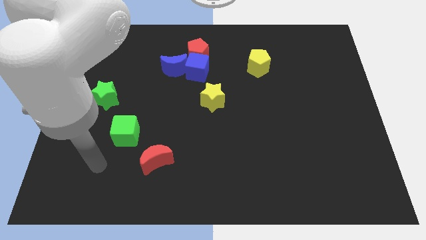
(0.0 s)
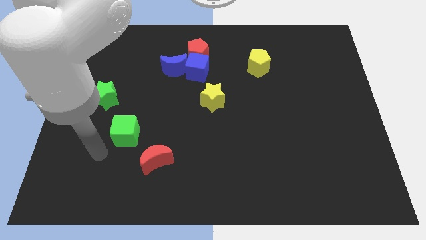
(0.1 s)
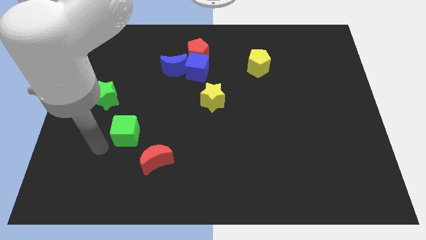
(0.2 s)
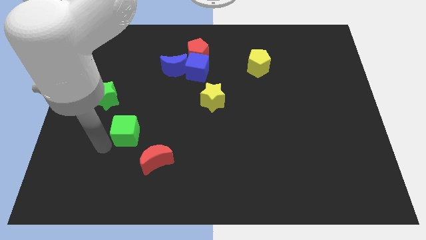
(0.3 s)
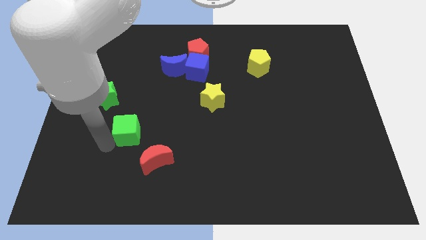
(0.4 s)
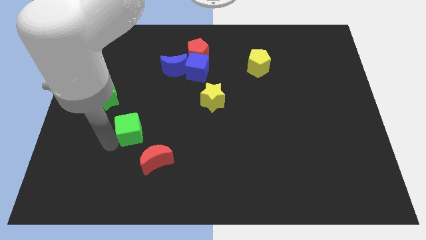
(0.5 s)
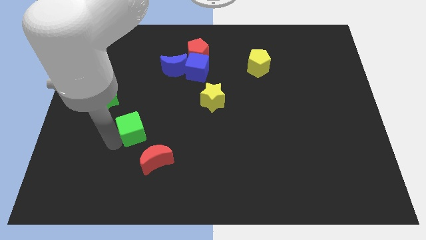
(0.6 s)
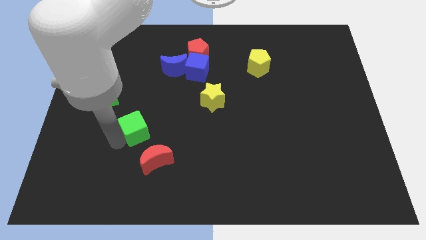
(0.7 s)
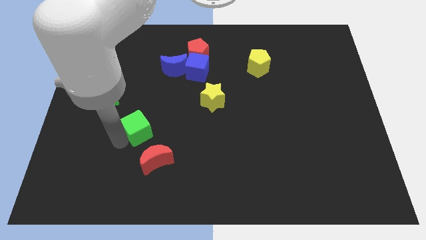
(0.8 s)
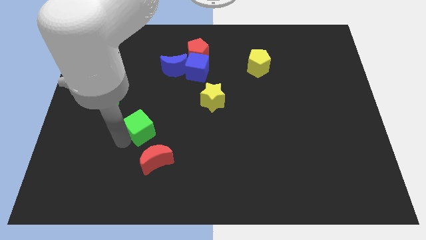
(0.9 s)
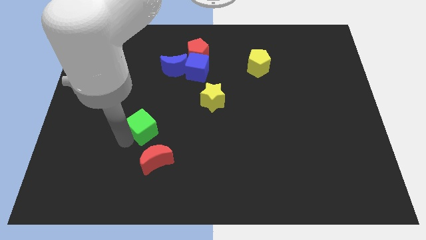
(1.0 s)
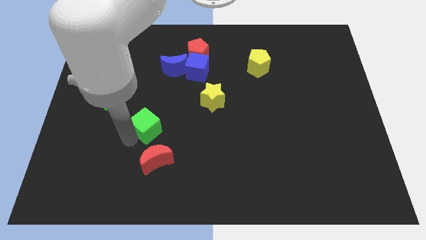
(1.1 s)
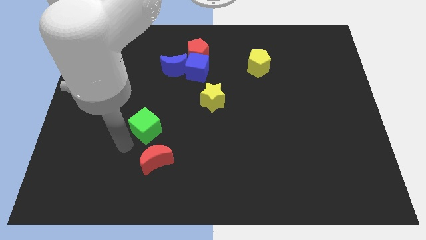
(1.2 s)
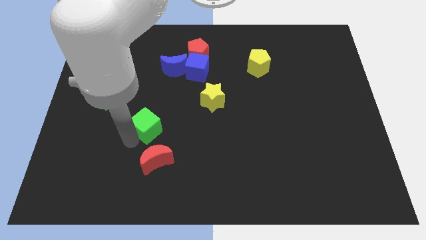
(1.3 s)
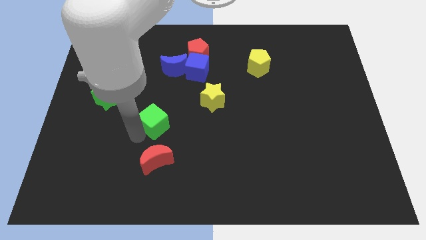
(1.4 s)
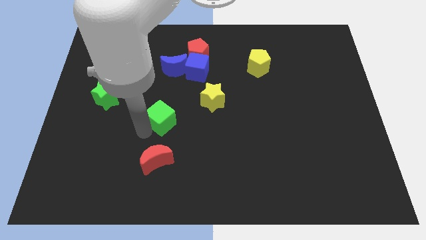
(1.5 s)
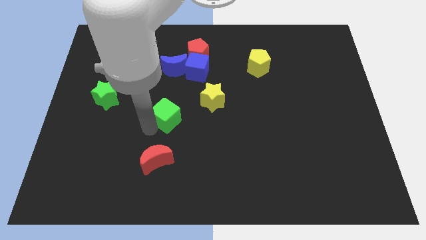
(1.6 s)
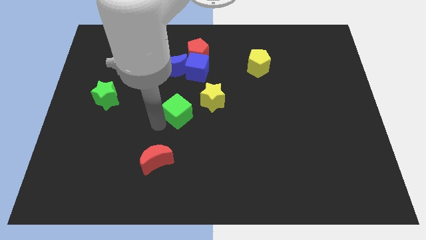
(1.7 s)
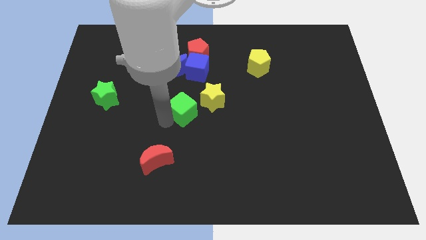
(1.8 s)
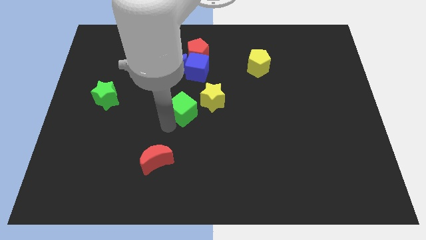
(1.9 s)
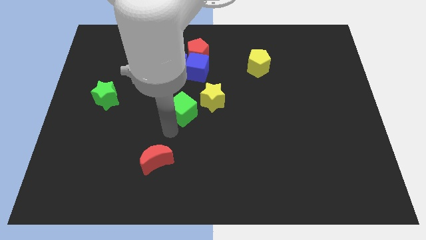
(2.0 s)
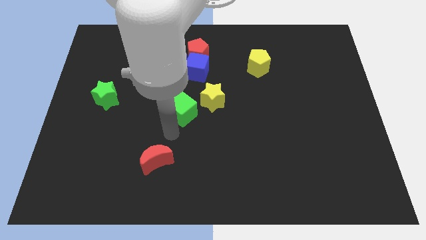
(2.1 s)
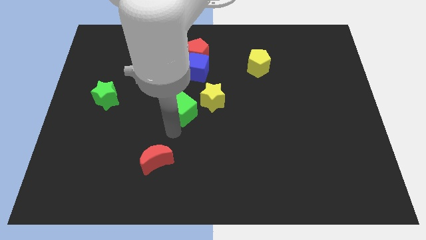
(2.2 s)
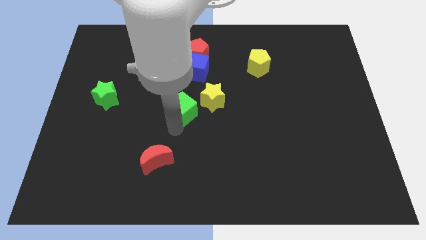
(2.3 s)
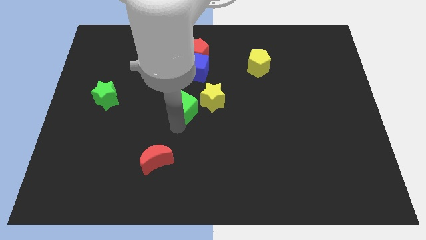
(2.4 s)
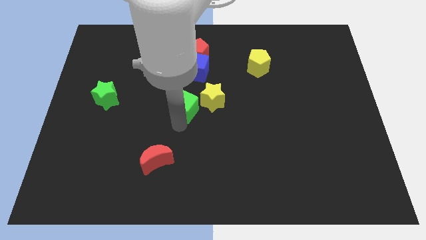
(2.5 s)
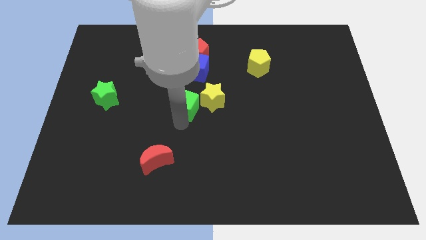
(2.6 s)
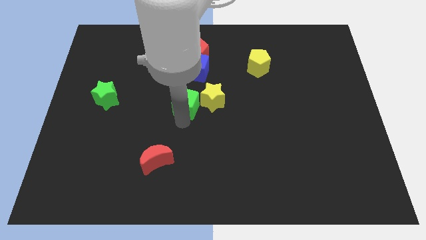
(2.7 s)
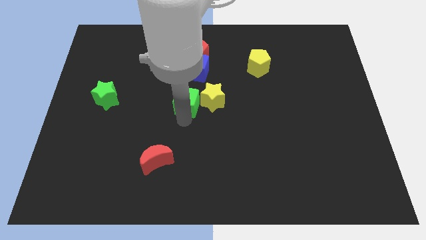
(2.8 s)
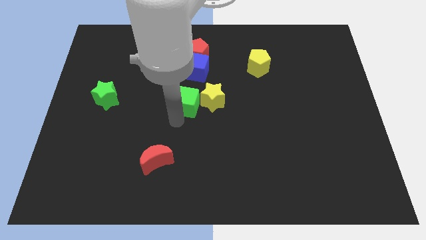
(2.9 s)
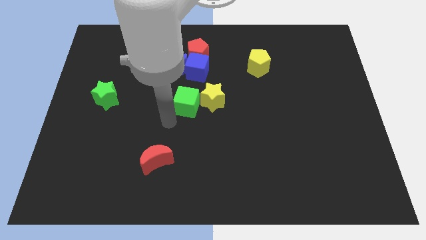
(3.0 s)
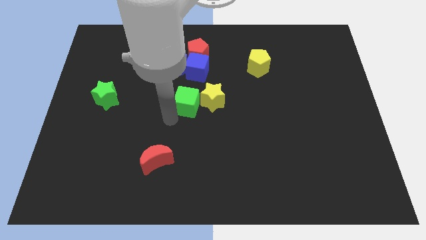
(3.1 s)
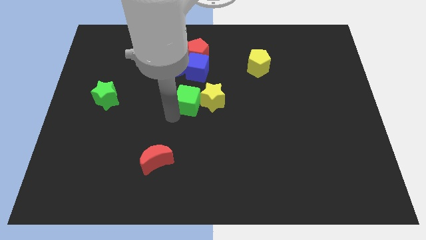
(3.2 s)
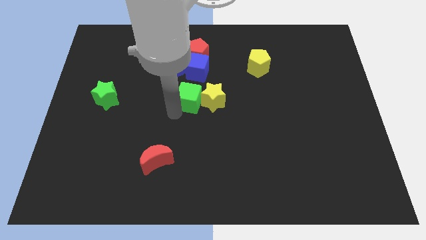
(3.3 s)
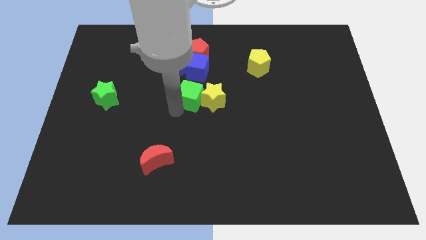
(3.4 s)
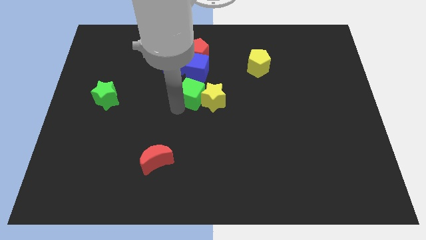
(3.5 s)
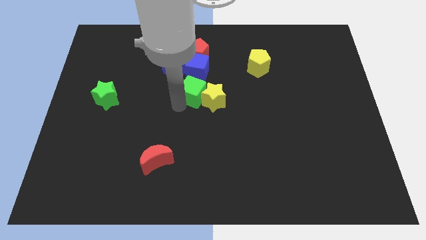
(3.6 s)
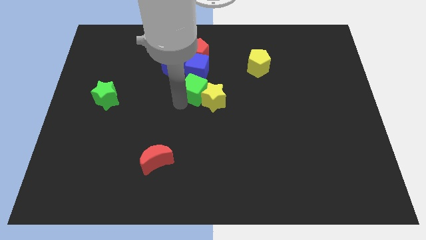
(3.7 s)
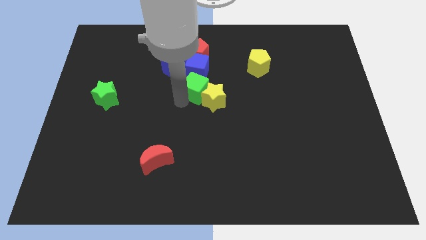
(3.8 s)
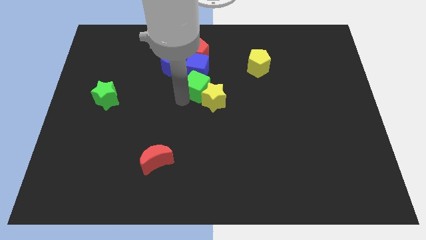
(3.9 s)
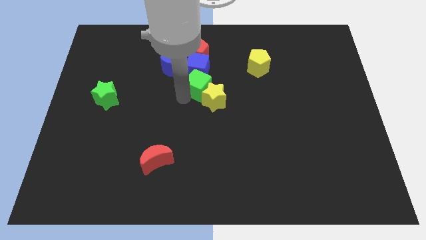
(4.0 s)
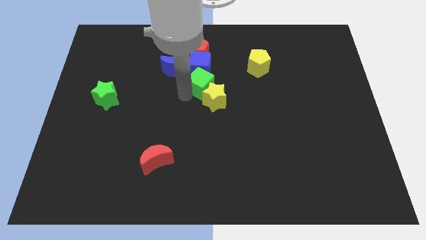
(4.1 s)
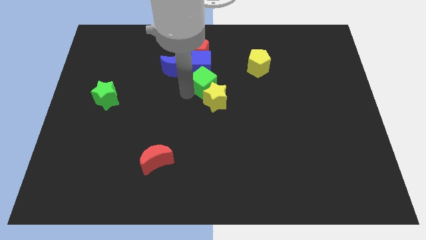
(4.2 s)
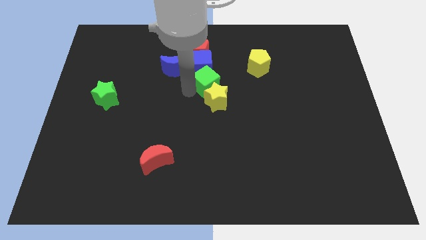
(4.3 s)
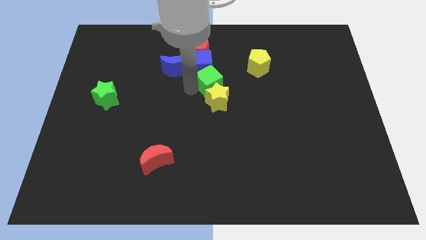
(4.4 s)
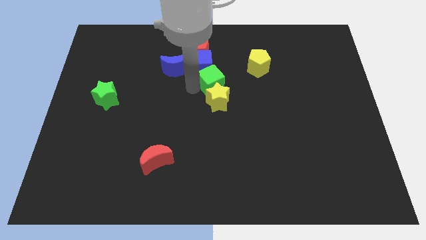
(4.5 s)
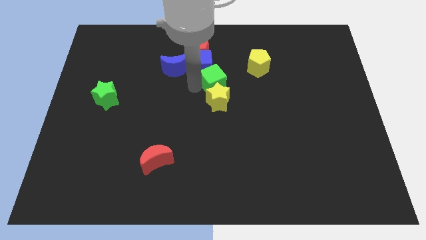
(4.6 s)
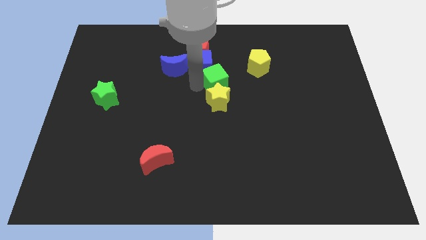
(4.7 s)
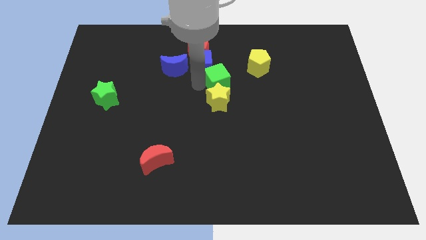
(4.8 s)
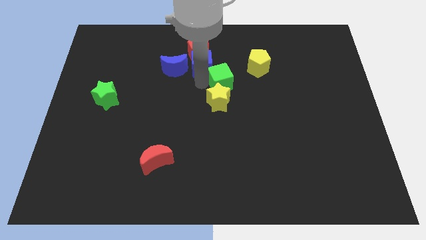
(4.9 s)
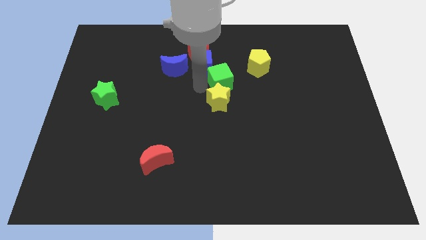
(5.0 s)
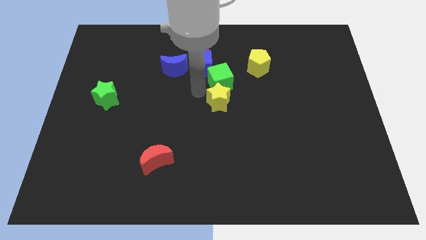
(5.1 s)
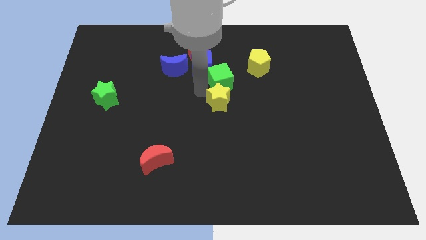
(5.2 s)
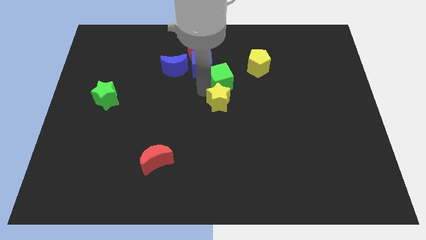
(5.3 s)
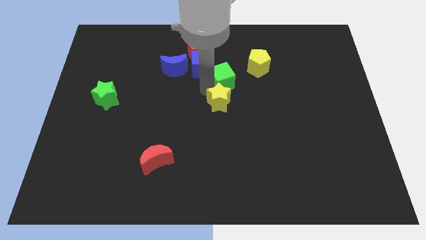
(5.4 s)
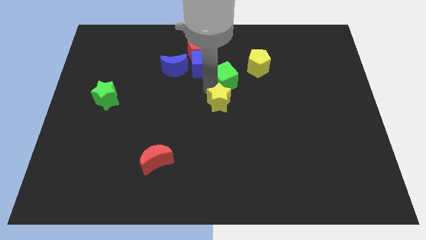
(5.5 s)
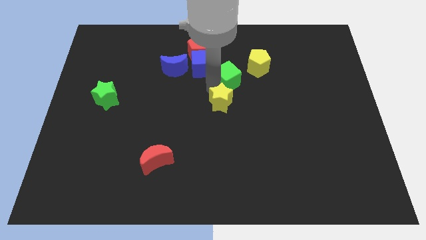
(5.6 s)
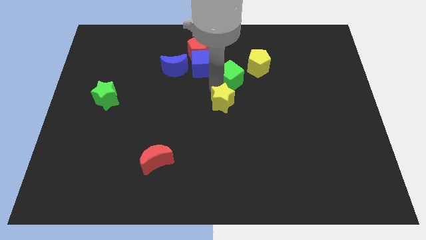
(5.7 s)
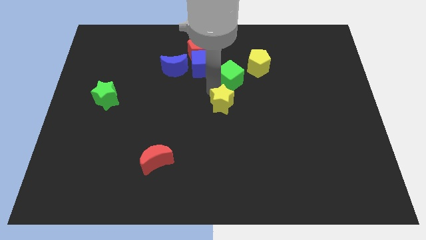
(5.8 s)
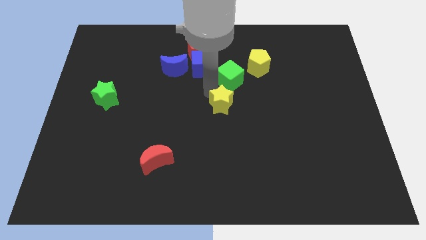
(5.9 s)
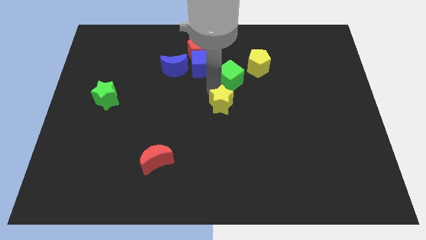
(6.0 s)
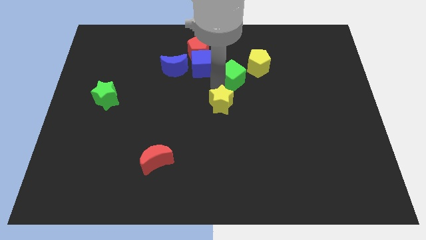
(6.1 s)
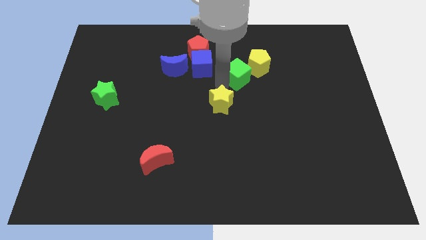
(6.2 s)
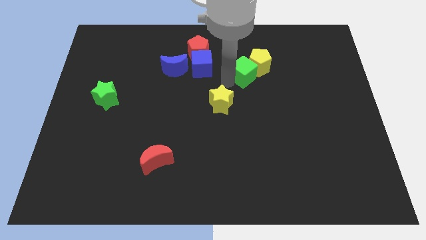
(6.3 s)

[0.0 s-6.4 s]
put the green cube to the yellow pentagon
